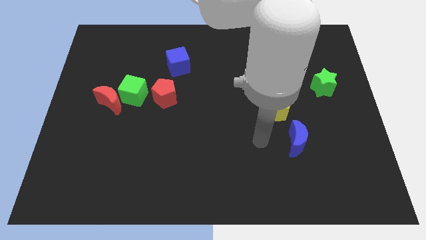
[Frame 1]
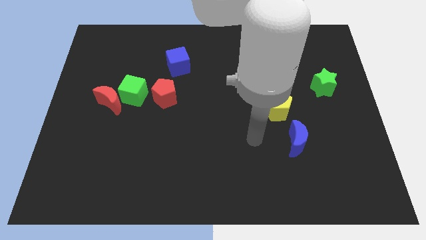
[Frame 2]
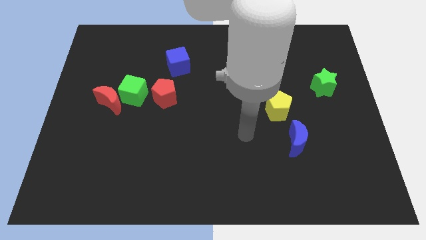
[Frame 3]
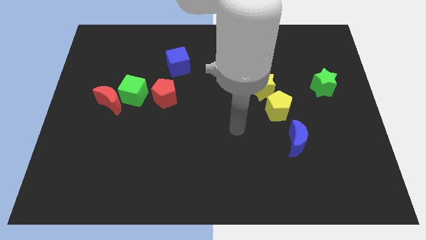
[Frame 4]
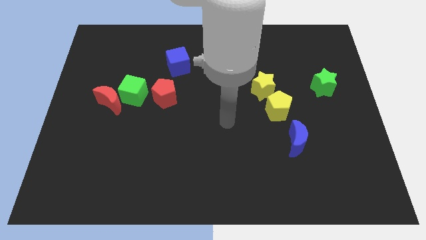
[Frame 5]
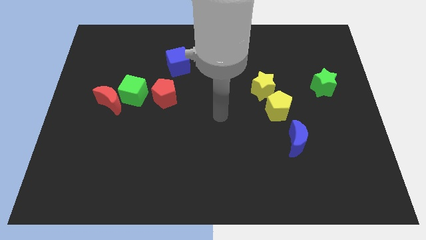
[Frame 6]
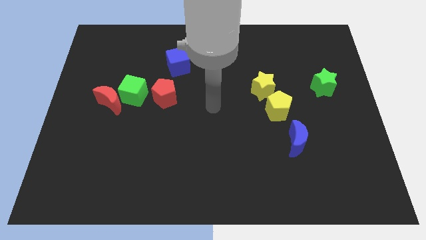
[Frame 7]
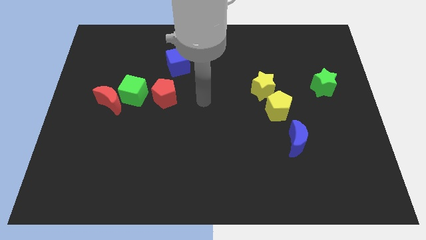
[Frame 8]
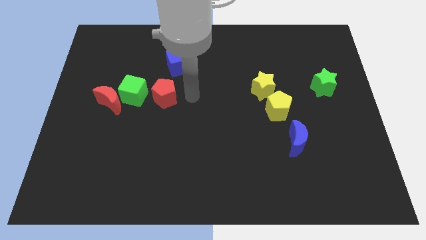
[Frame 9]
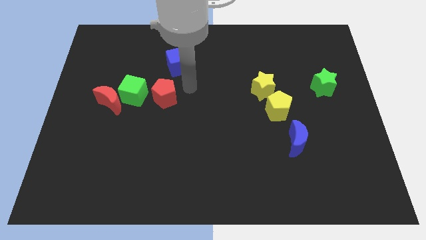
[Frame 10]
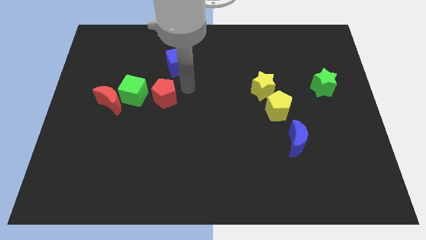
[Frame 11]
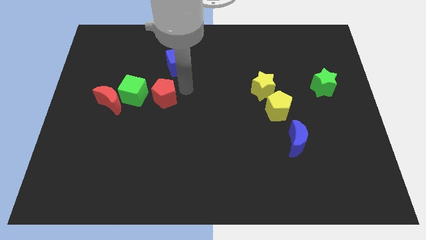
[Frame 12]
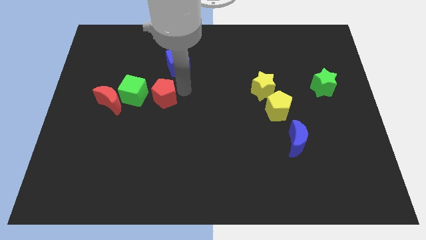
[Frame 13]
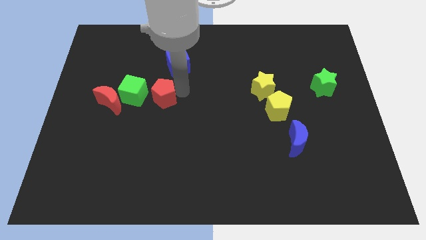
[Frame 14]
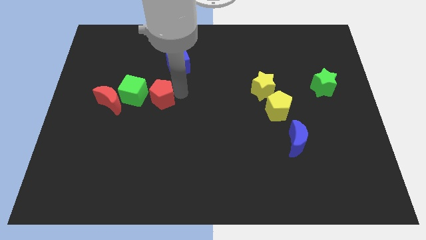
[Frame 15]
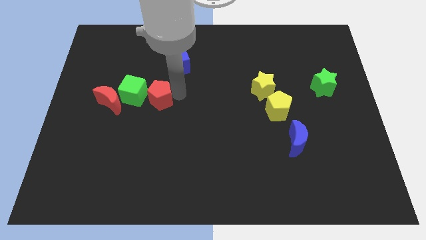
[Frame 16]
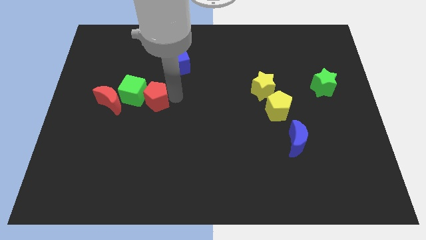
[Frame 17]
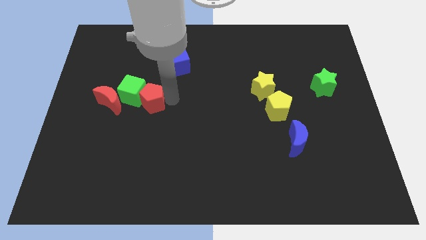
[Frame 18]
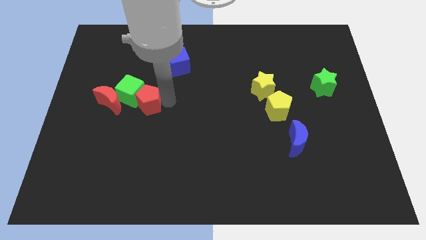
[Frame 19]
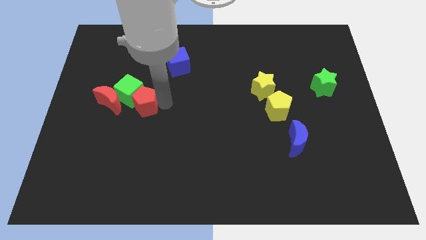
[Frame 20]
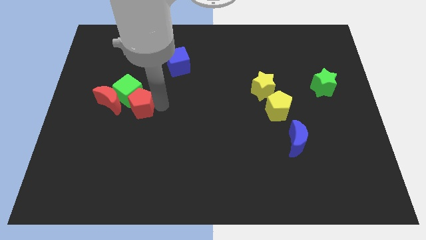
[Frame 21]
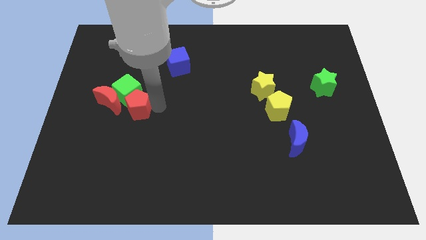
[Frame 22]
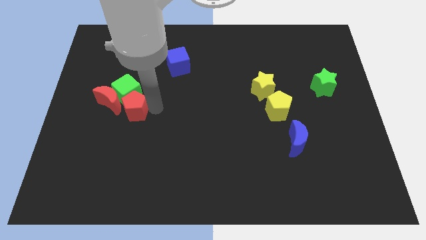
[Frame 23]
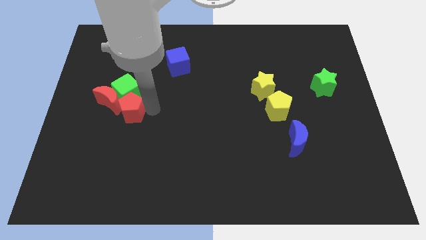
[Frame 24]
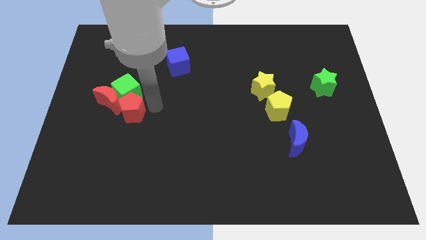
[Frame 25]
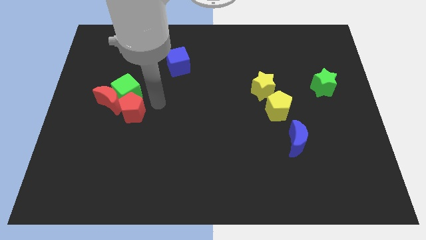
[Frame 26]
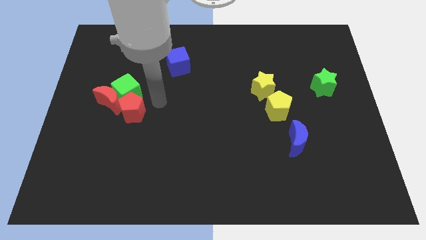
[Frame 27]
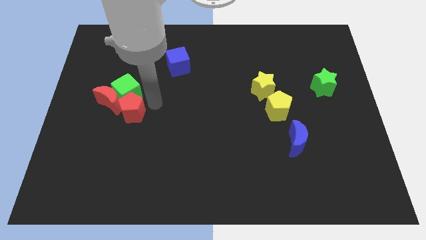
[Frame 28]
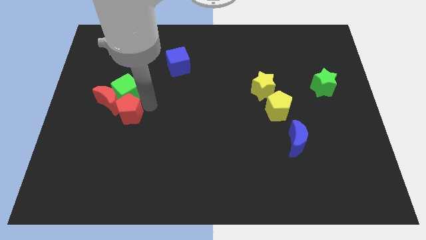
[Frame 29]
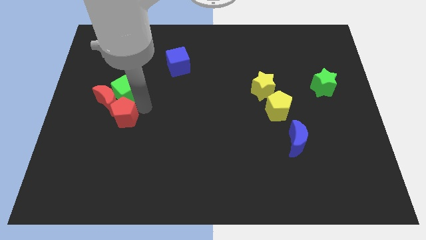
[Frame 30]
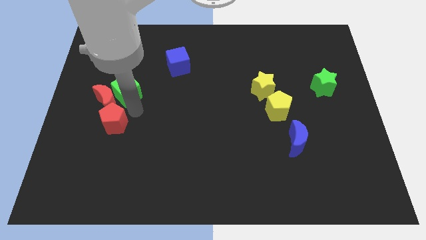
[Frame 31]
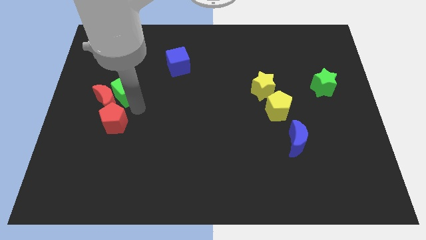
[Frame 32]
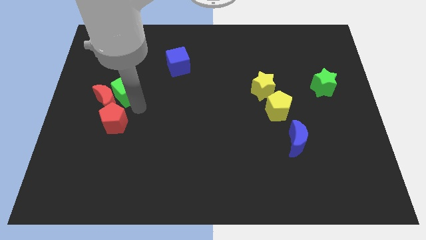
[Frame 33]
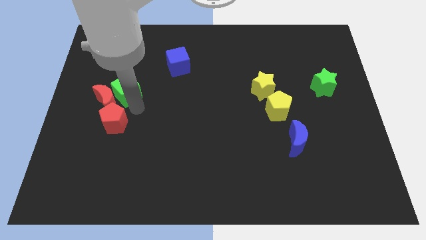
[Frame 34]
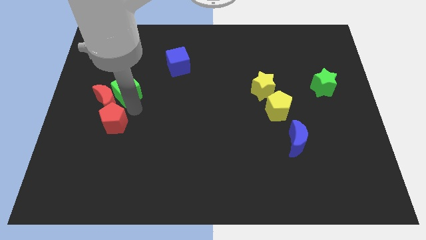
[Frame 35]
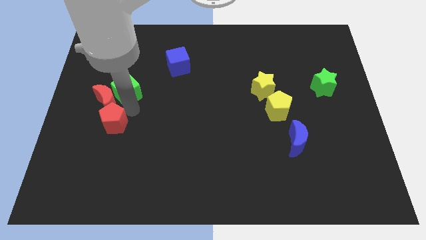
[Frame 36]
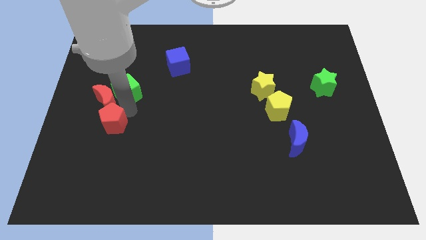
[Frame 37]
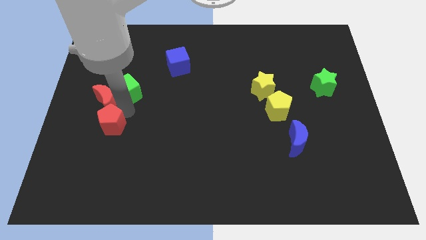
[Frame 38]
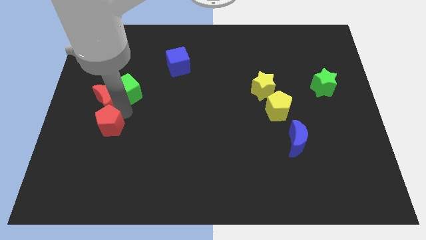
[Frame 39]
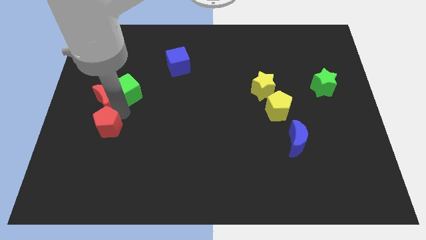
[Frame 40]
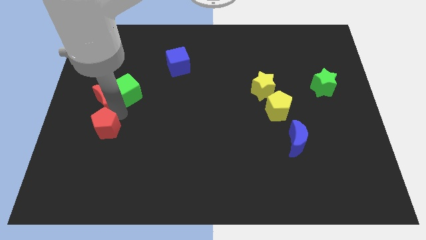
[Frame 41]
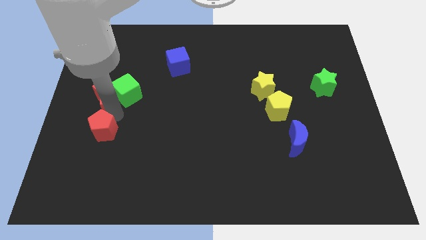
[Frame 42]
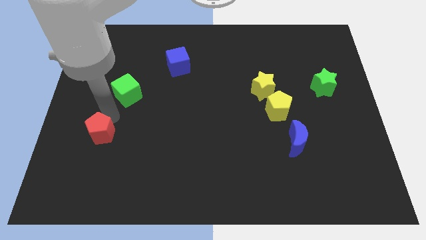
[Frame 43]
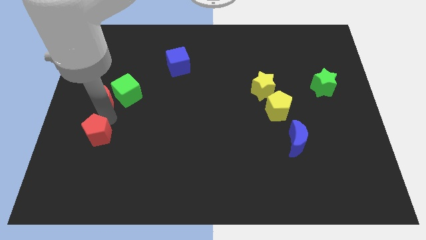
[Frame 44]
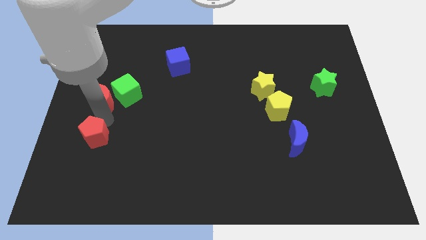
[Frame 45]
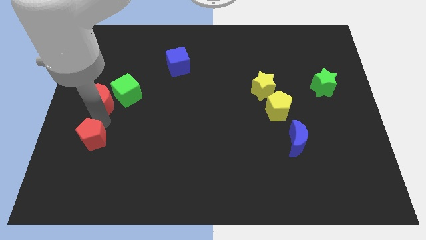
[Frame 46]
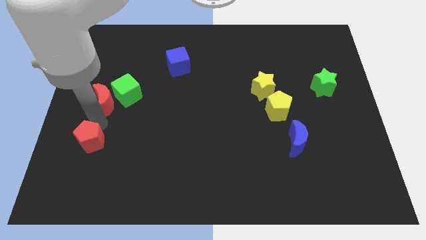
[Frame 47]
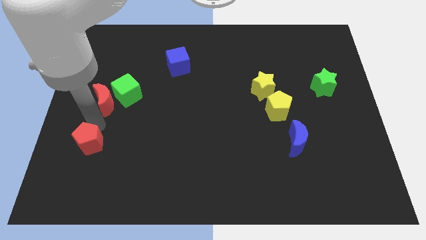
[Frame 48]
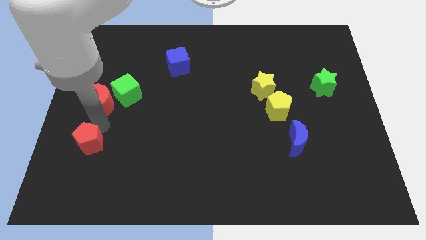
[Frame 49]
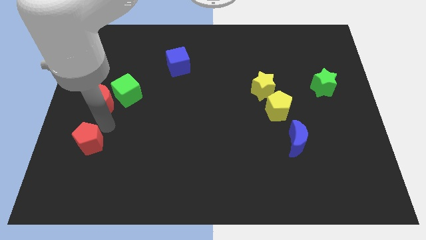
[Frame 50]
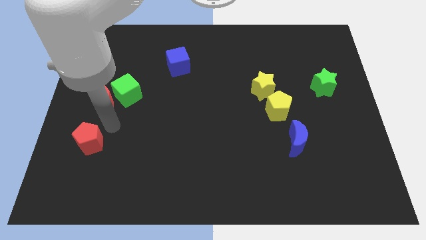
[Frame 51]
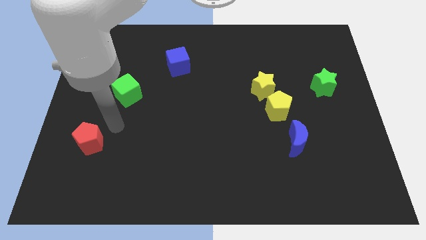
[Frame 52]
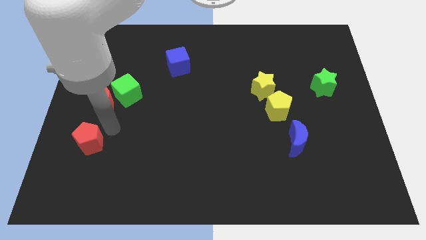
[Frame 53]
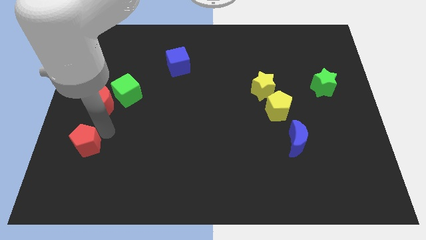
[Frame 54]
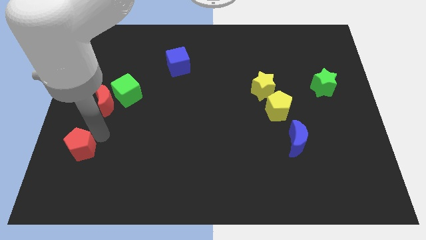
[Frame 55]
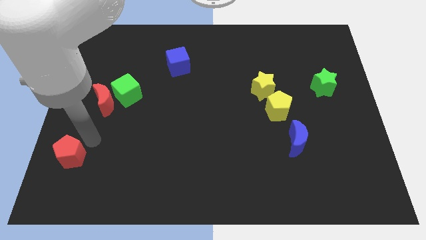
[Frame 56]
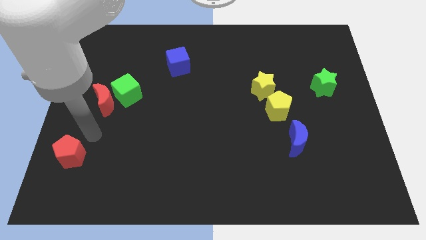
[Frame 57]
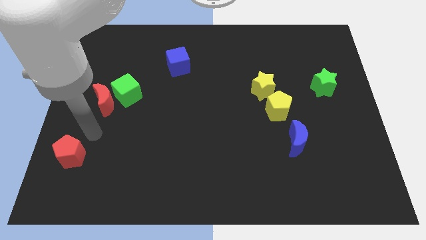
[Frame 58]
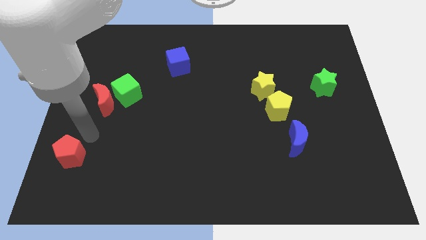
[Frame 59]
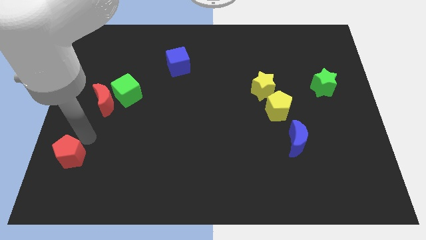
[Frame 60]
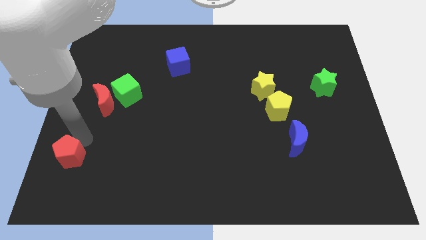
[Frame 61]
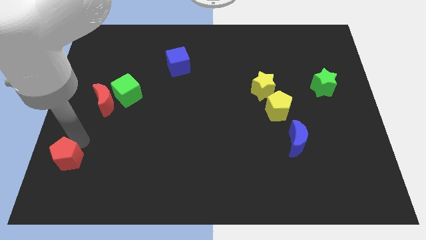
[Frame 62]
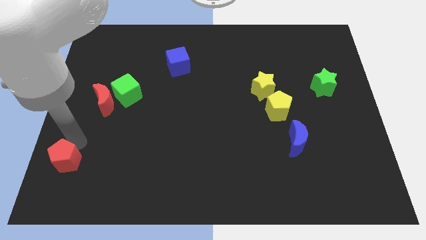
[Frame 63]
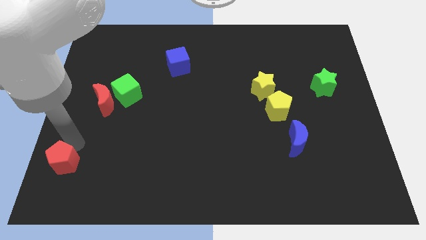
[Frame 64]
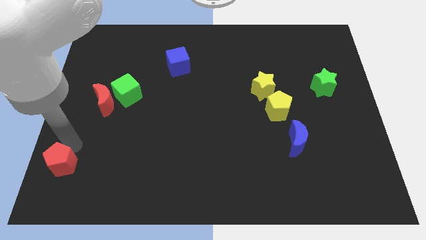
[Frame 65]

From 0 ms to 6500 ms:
move the red pentagon to the bottom left corner
